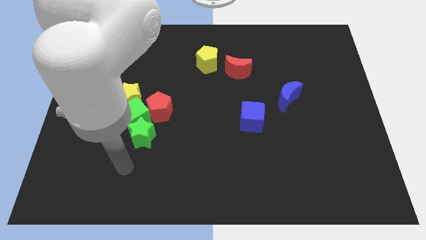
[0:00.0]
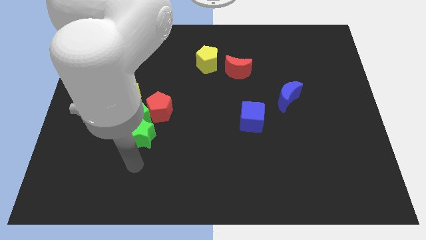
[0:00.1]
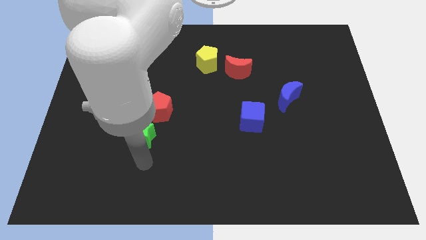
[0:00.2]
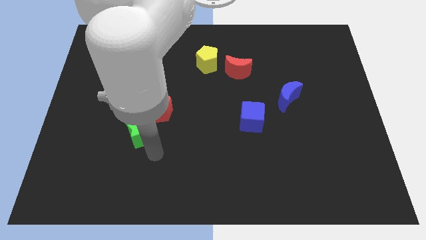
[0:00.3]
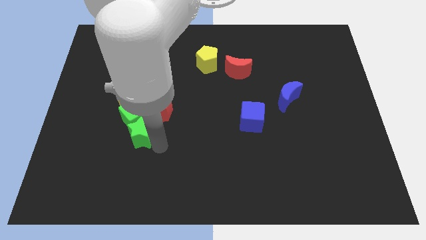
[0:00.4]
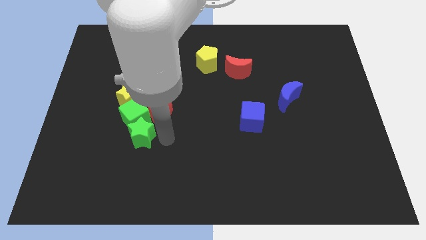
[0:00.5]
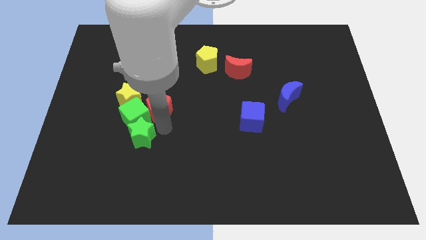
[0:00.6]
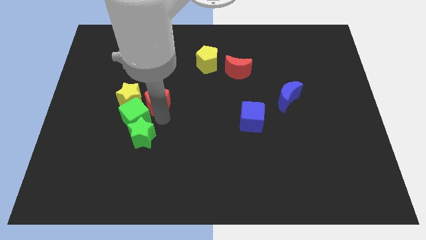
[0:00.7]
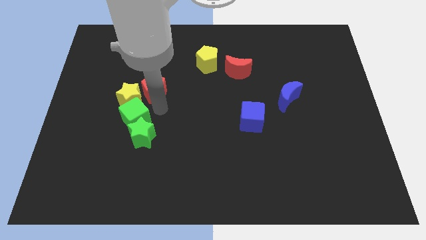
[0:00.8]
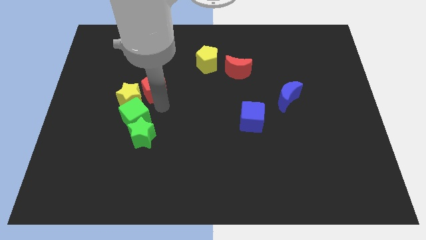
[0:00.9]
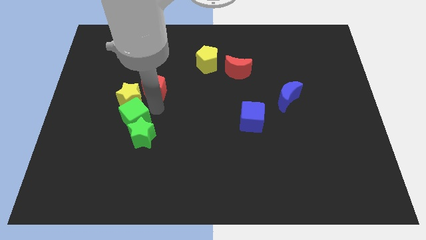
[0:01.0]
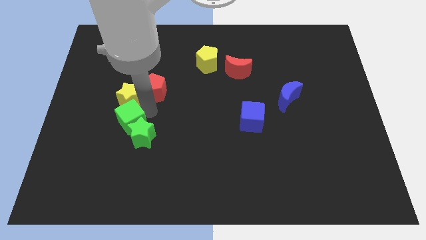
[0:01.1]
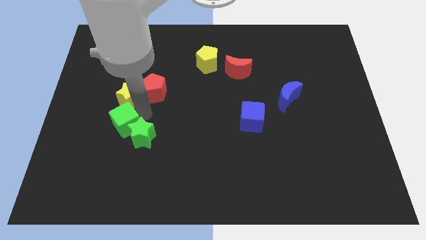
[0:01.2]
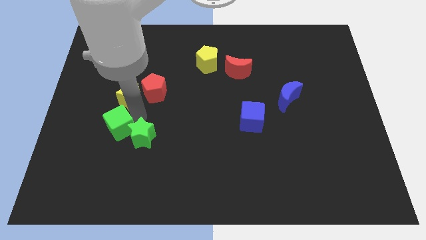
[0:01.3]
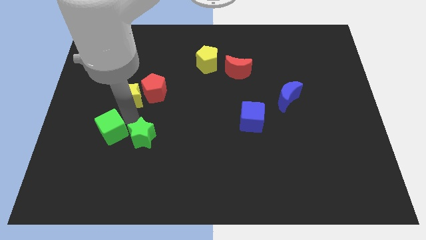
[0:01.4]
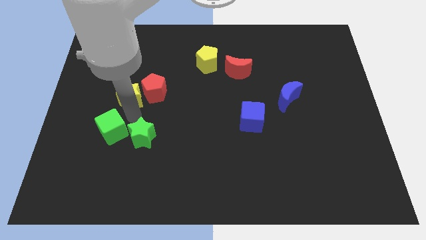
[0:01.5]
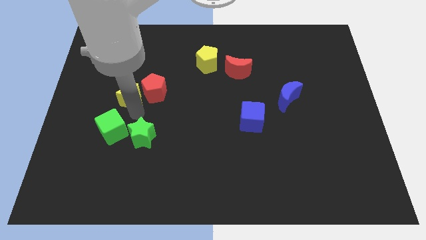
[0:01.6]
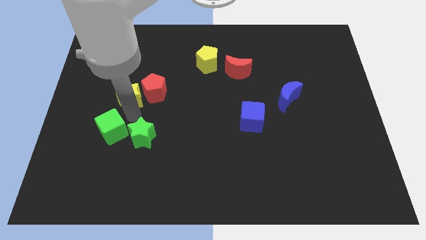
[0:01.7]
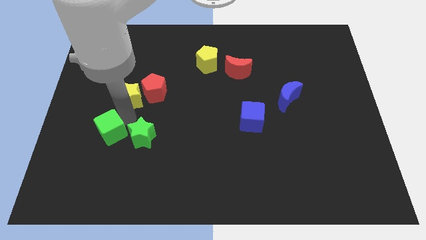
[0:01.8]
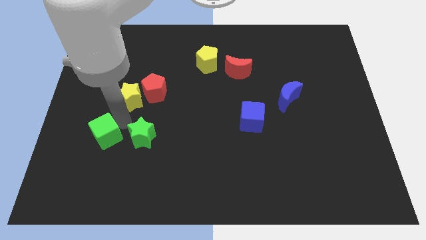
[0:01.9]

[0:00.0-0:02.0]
pull the green cube apart from the group

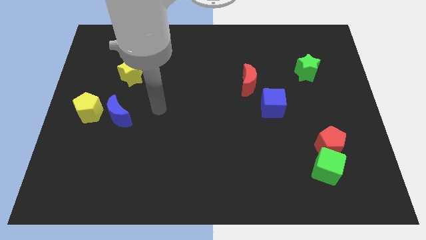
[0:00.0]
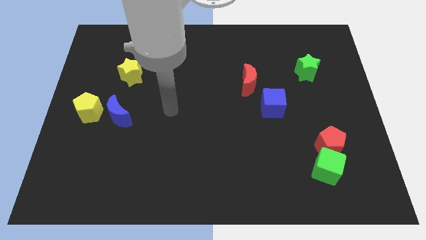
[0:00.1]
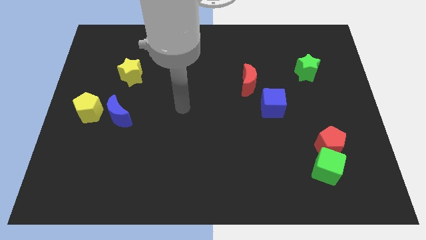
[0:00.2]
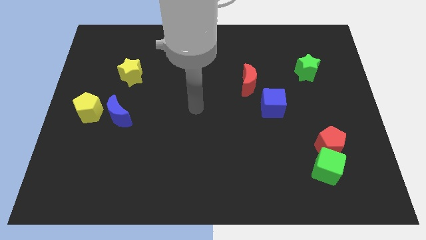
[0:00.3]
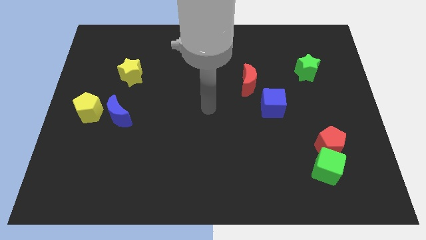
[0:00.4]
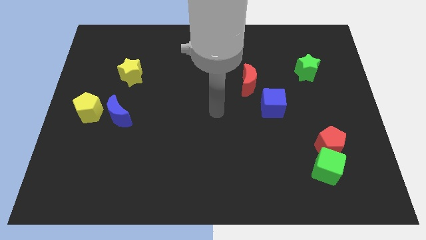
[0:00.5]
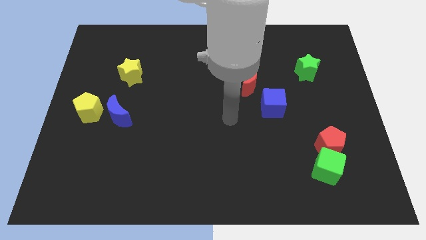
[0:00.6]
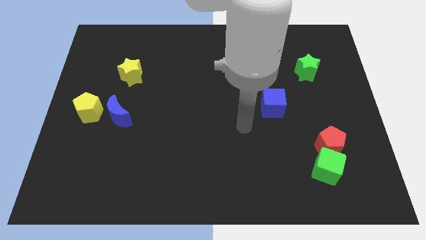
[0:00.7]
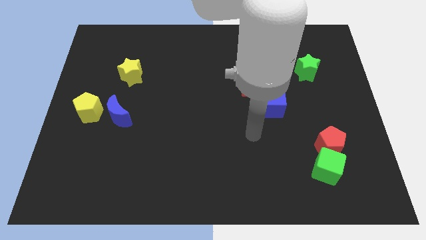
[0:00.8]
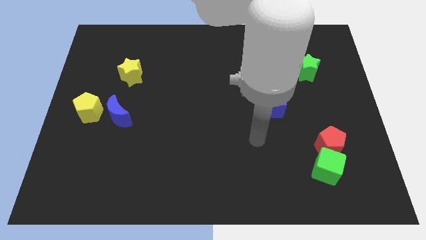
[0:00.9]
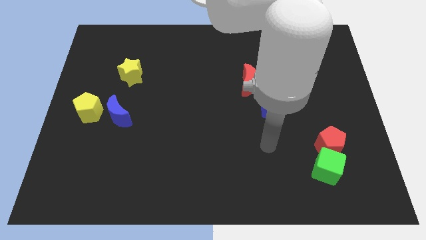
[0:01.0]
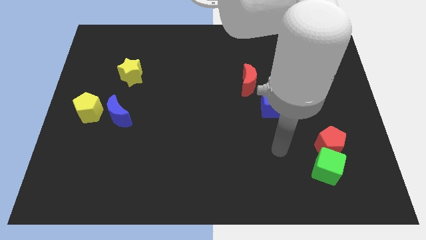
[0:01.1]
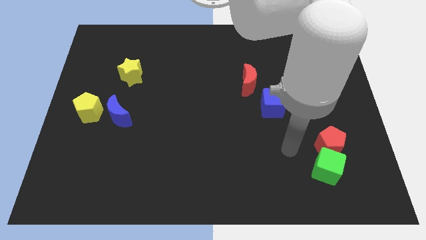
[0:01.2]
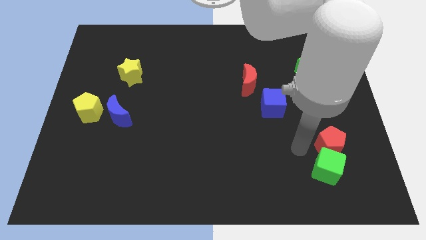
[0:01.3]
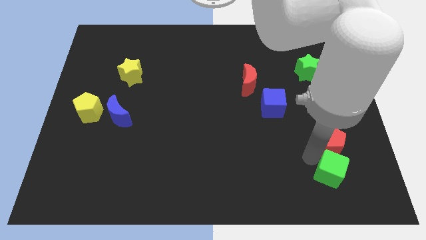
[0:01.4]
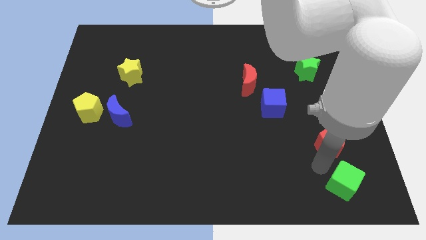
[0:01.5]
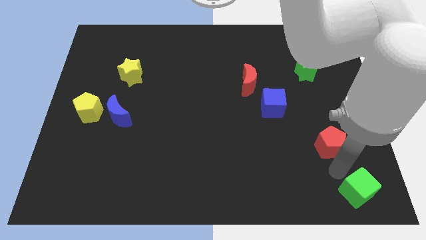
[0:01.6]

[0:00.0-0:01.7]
separate the red pentagon from the green cube

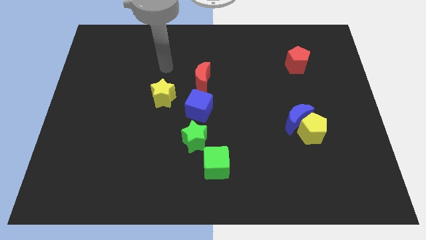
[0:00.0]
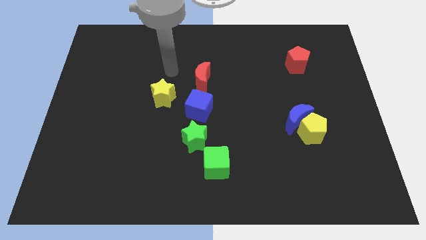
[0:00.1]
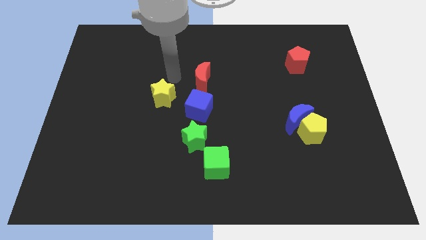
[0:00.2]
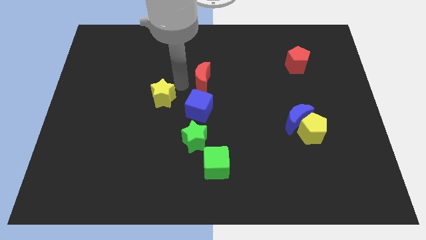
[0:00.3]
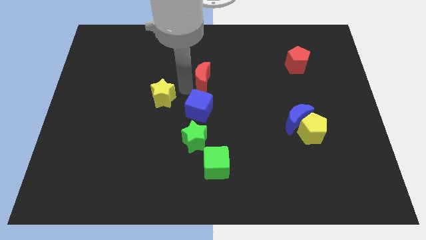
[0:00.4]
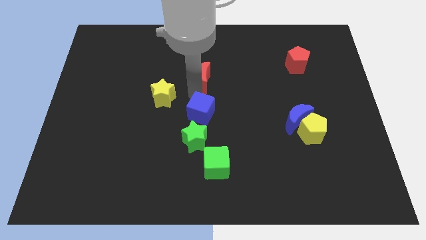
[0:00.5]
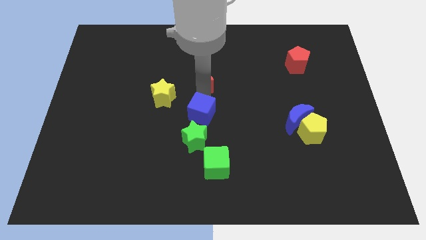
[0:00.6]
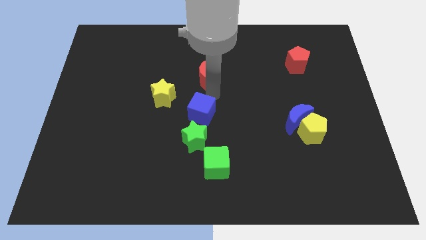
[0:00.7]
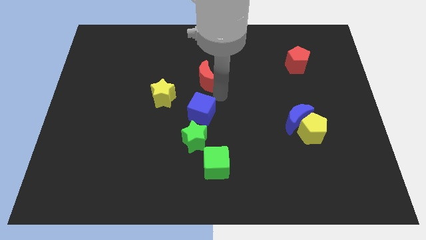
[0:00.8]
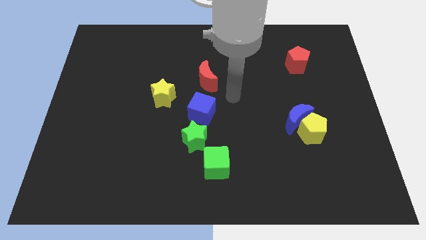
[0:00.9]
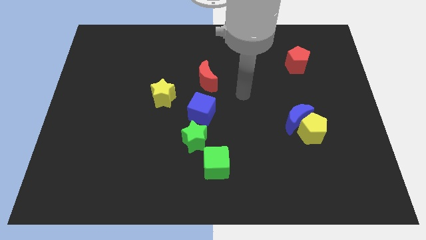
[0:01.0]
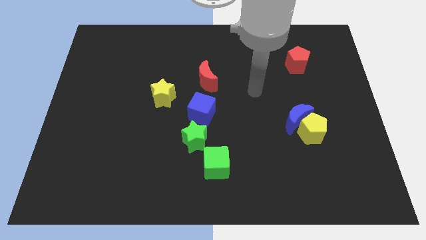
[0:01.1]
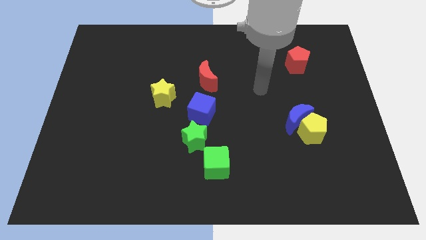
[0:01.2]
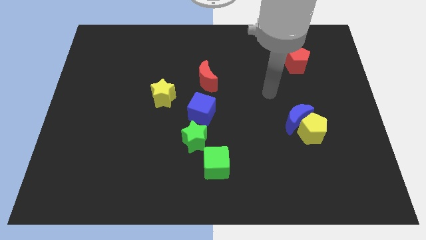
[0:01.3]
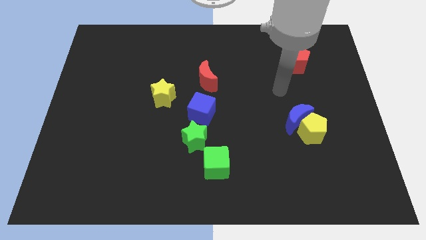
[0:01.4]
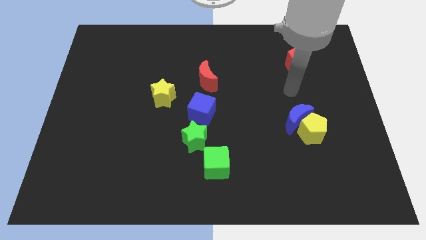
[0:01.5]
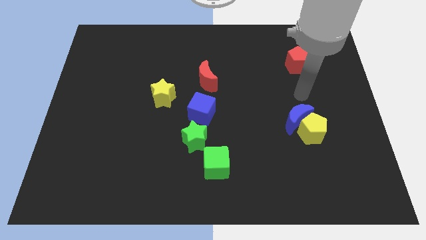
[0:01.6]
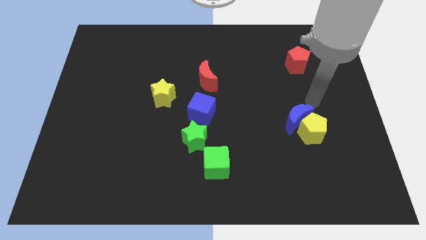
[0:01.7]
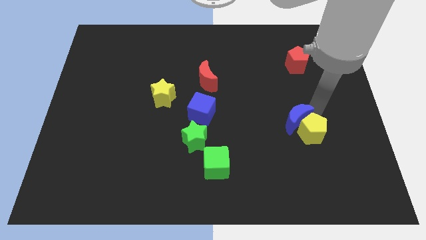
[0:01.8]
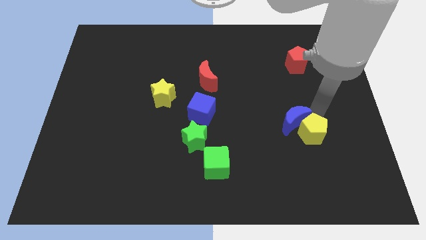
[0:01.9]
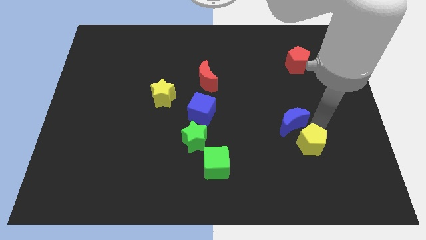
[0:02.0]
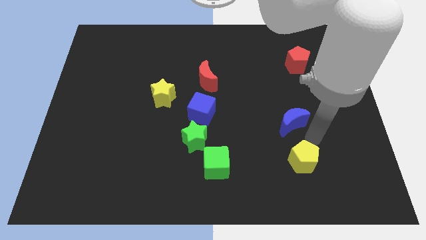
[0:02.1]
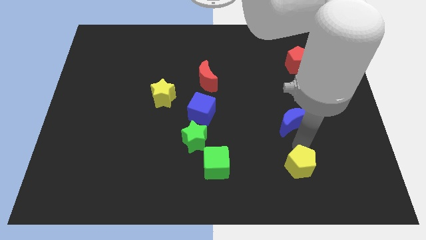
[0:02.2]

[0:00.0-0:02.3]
pull the blue moon apart from the yellow pentagon

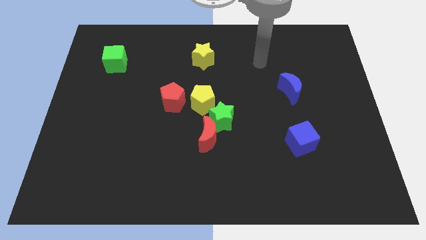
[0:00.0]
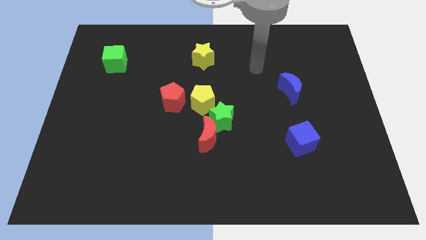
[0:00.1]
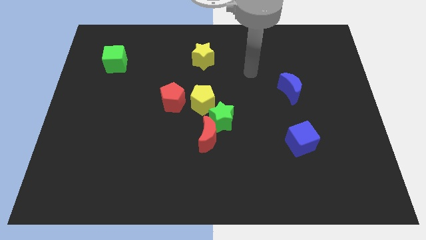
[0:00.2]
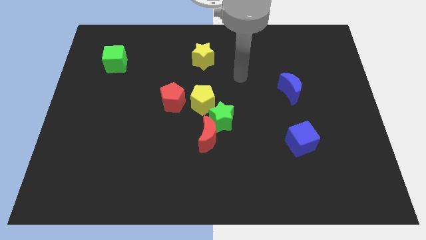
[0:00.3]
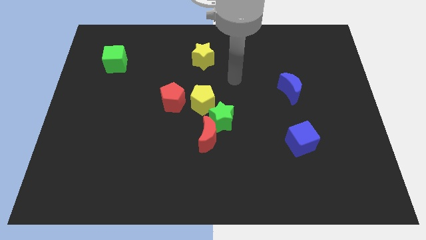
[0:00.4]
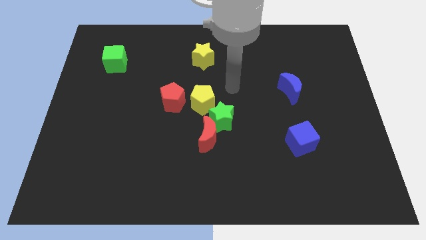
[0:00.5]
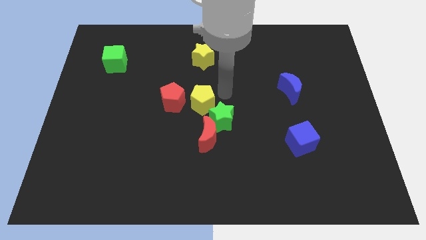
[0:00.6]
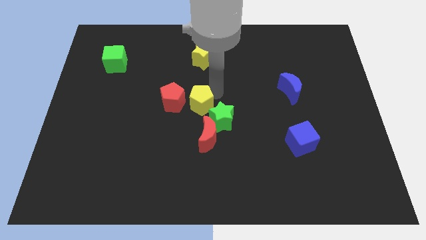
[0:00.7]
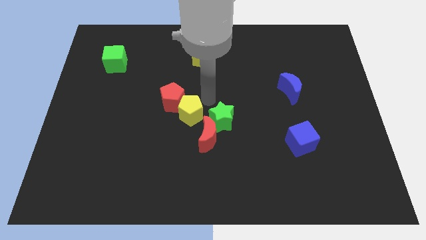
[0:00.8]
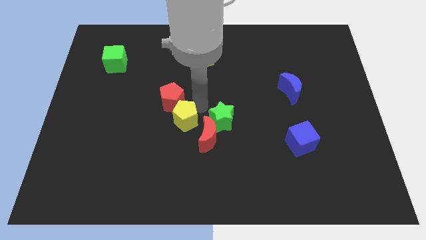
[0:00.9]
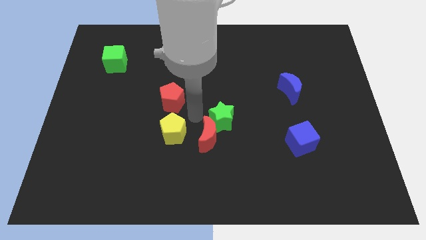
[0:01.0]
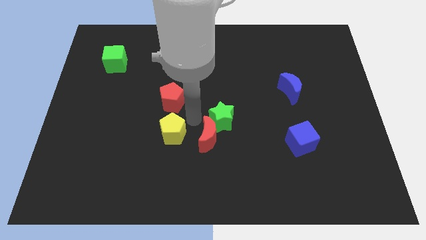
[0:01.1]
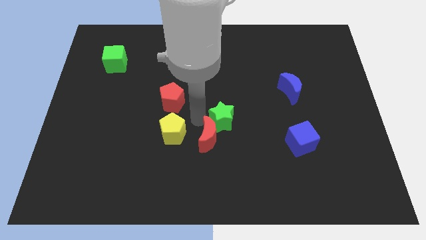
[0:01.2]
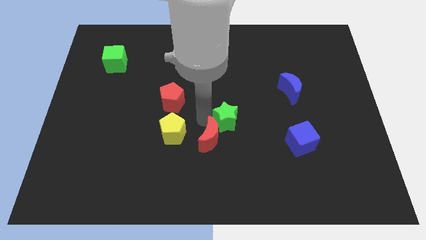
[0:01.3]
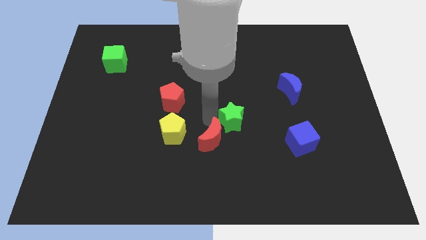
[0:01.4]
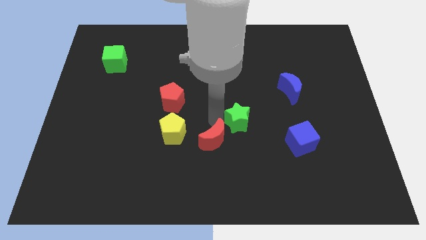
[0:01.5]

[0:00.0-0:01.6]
separate the green star from the red moon and yellow pentagon

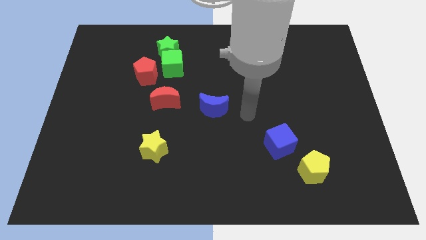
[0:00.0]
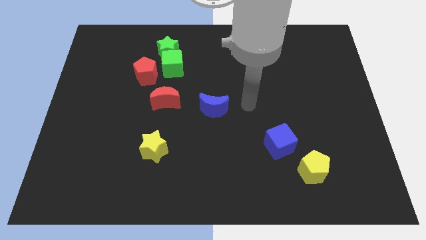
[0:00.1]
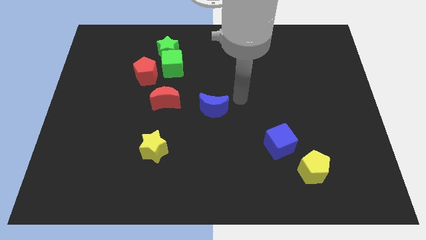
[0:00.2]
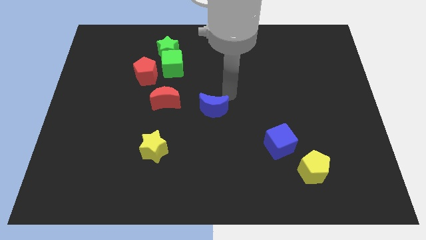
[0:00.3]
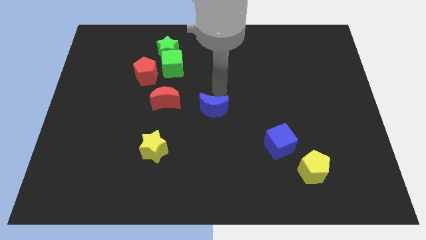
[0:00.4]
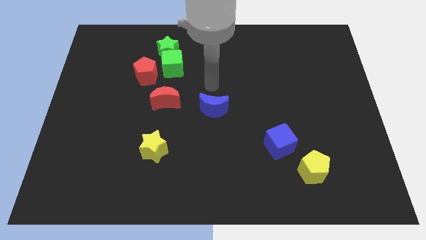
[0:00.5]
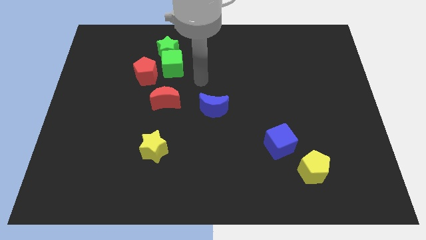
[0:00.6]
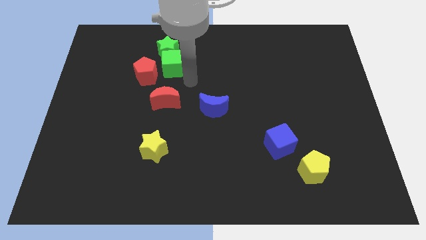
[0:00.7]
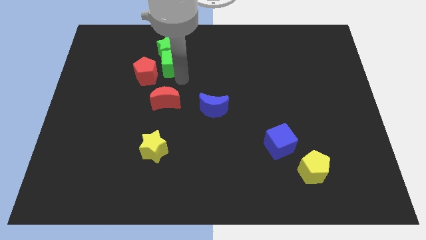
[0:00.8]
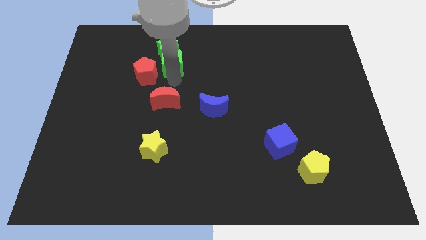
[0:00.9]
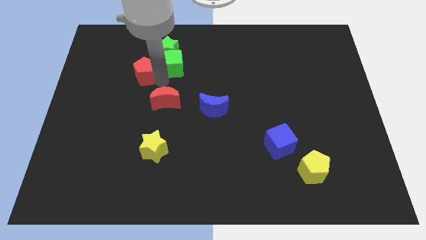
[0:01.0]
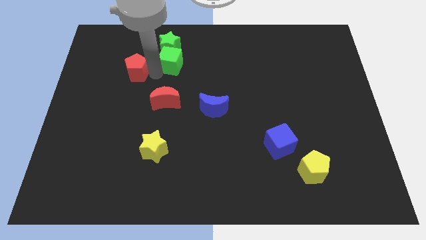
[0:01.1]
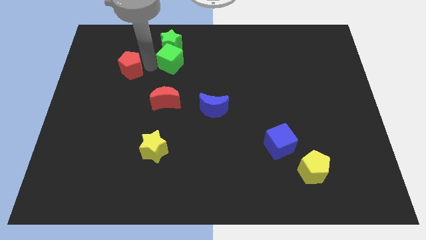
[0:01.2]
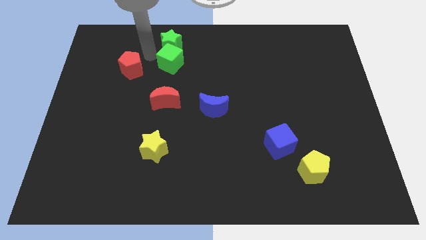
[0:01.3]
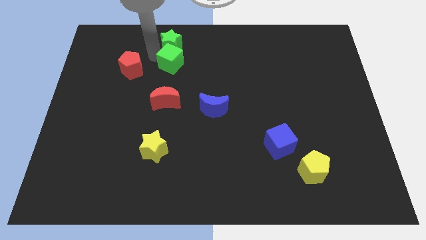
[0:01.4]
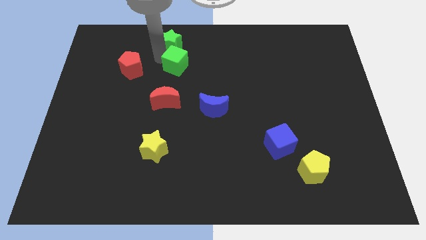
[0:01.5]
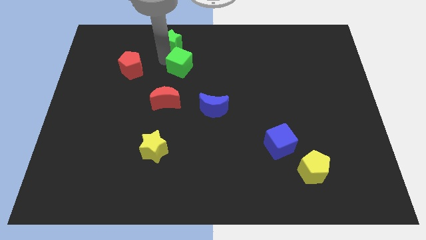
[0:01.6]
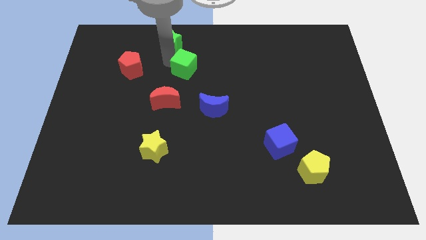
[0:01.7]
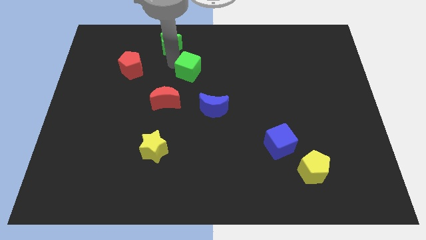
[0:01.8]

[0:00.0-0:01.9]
separate the green cube from the green star and red pentagon
